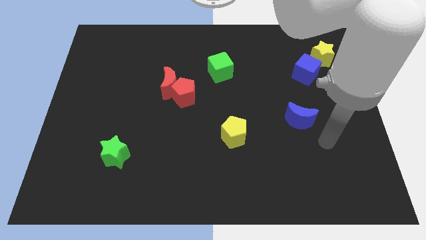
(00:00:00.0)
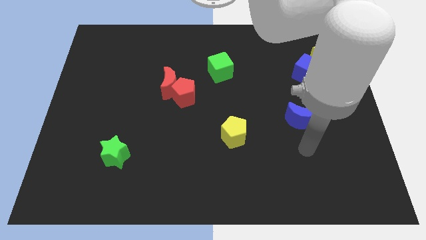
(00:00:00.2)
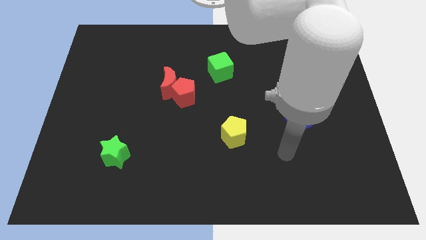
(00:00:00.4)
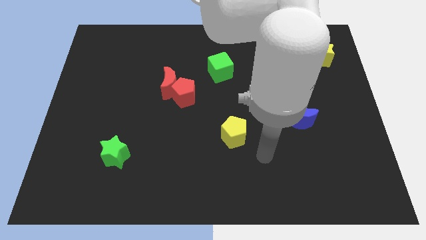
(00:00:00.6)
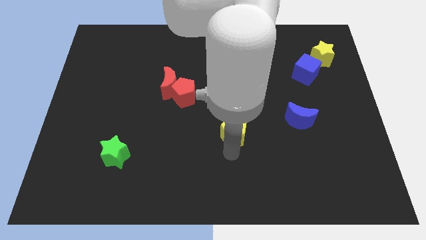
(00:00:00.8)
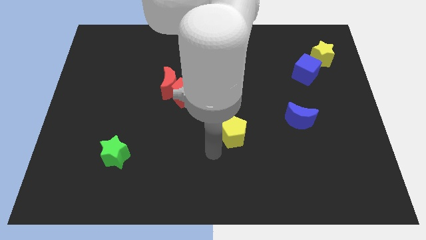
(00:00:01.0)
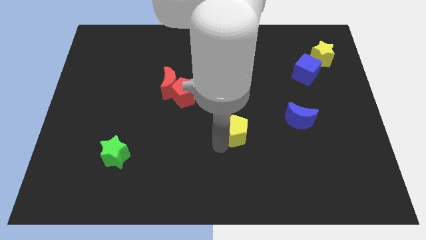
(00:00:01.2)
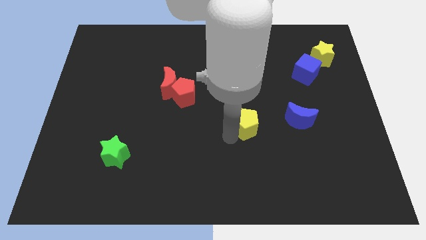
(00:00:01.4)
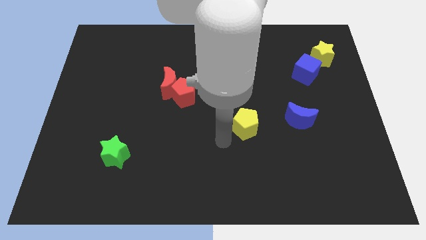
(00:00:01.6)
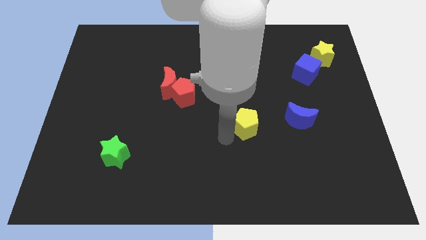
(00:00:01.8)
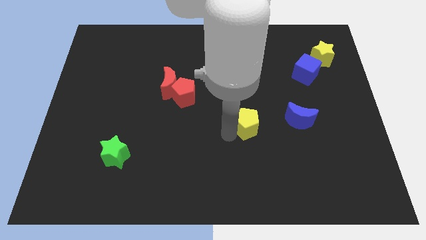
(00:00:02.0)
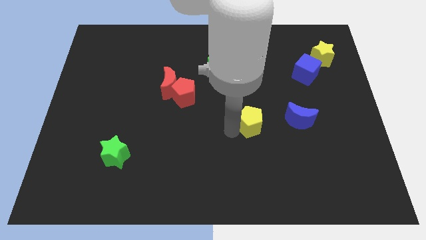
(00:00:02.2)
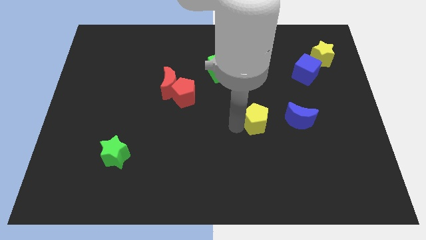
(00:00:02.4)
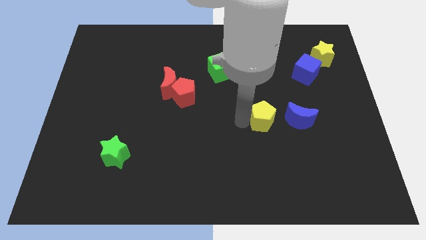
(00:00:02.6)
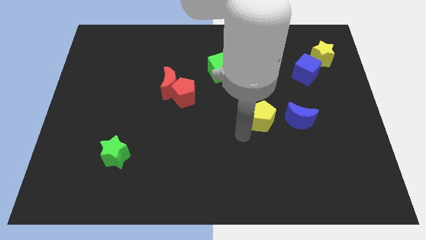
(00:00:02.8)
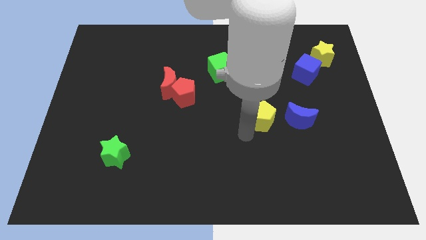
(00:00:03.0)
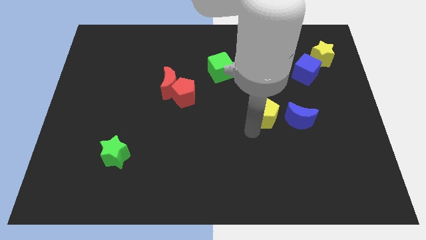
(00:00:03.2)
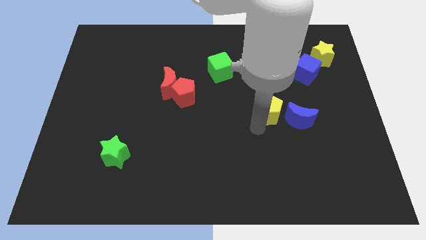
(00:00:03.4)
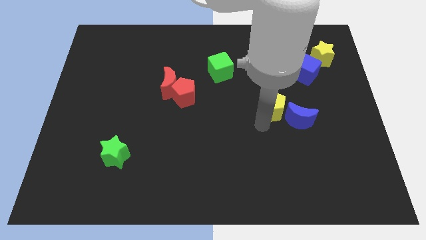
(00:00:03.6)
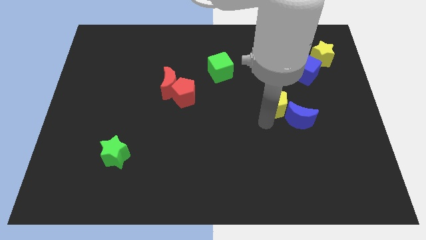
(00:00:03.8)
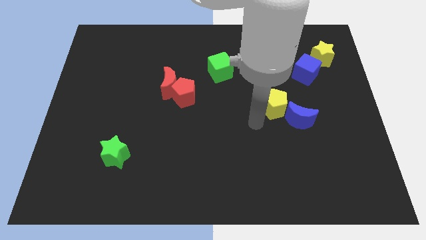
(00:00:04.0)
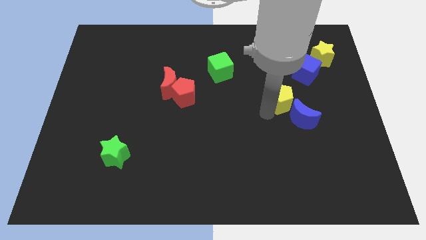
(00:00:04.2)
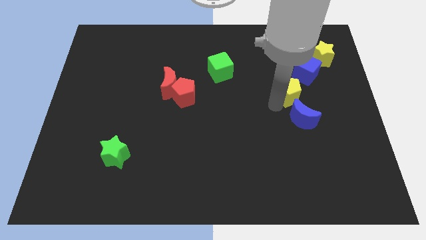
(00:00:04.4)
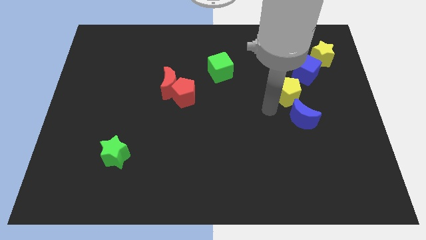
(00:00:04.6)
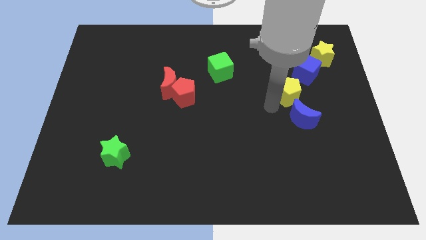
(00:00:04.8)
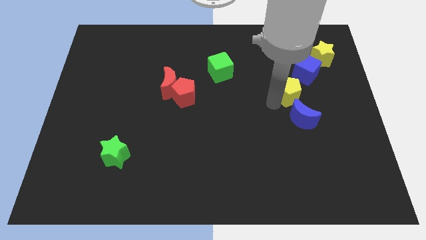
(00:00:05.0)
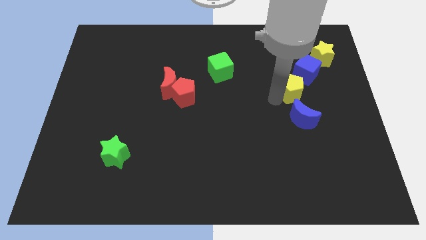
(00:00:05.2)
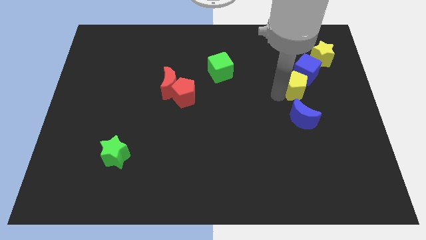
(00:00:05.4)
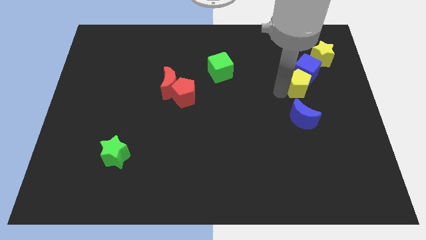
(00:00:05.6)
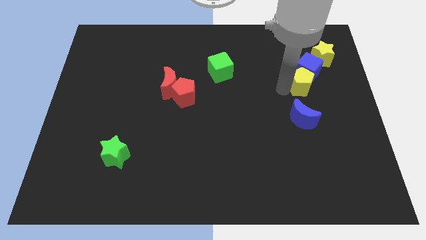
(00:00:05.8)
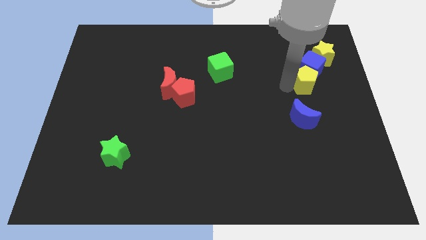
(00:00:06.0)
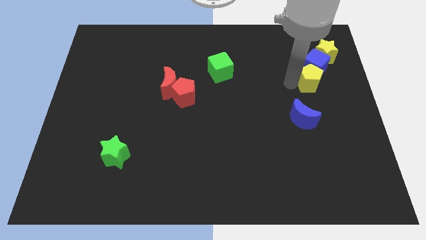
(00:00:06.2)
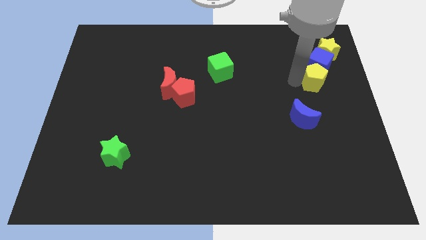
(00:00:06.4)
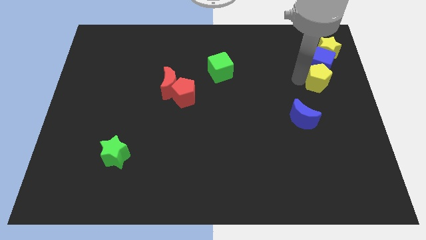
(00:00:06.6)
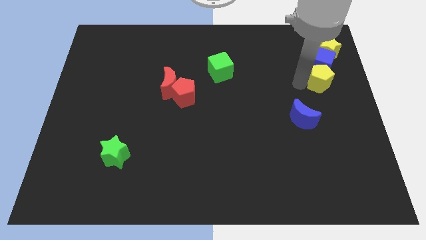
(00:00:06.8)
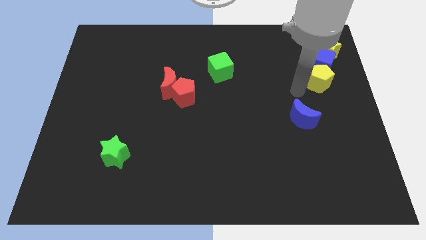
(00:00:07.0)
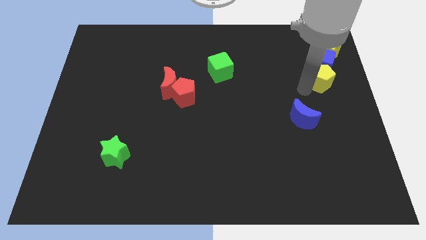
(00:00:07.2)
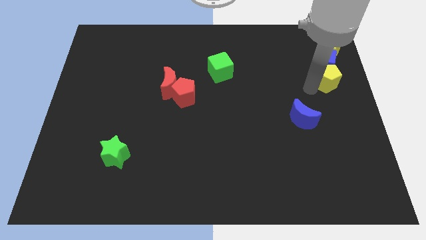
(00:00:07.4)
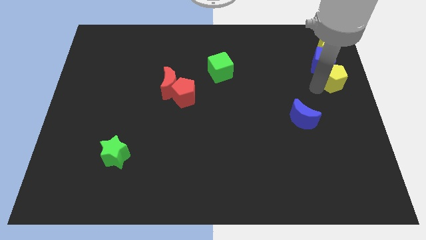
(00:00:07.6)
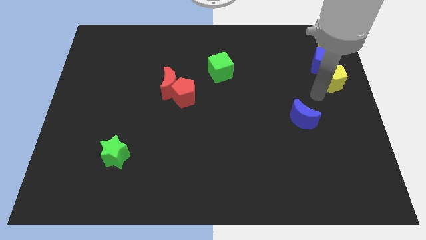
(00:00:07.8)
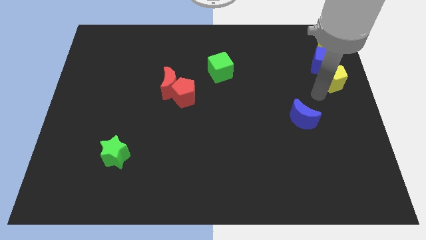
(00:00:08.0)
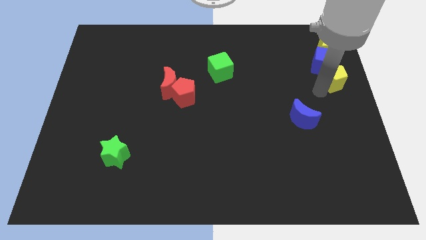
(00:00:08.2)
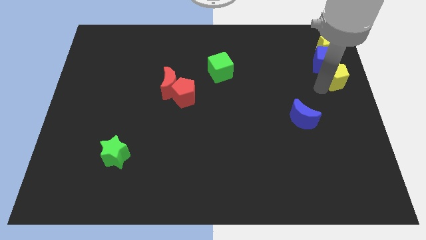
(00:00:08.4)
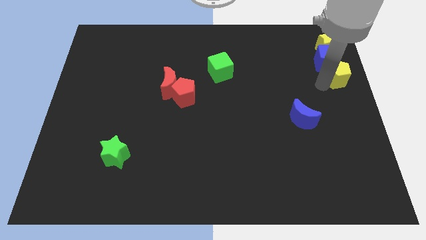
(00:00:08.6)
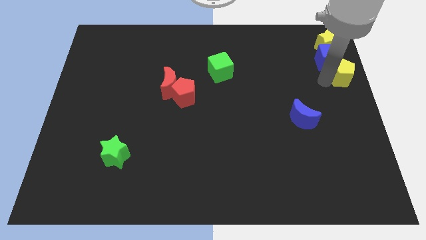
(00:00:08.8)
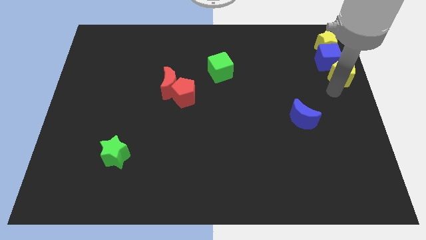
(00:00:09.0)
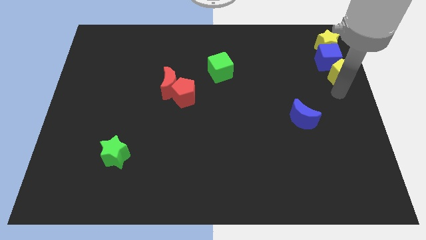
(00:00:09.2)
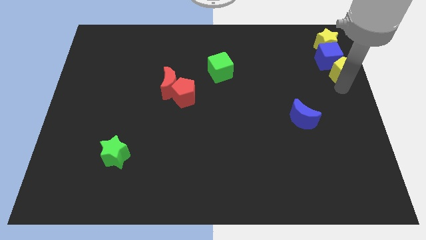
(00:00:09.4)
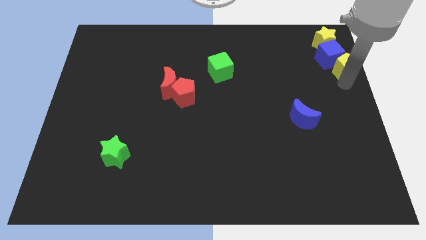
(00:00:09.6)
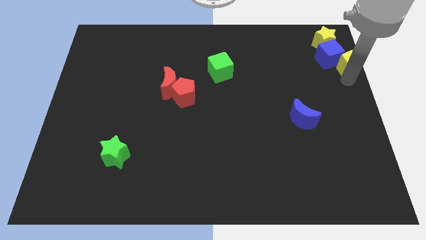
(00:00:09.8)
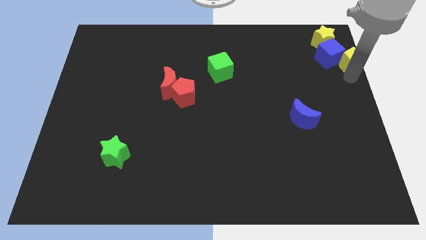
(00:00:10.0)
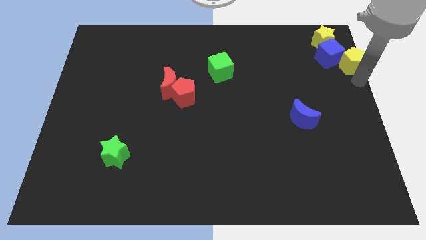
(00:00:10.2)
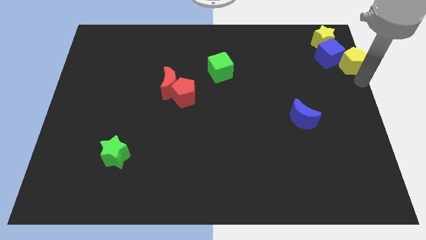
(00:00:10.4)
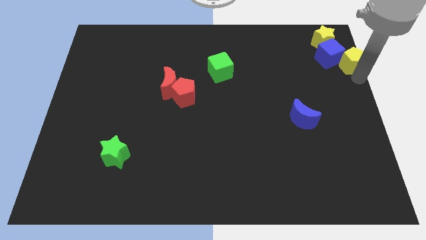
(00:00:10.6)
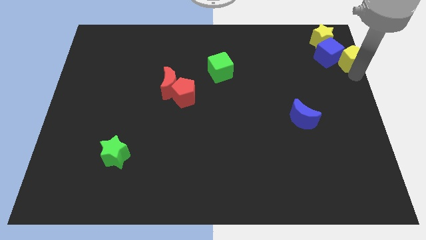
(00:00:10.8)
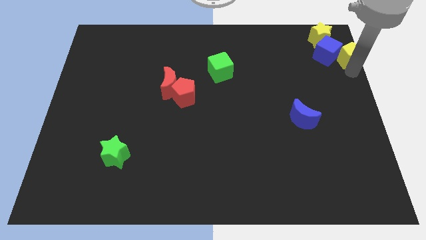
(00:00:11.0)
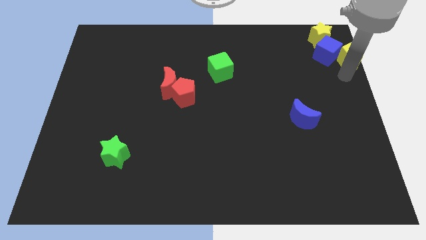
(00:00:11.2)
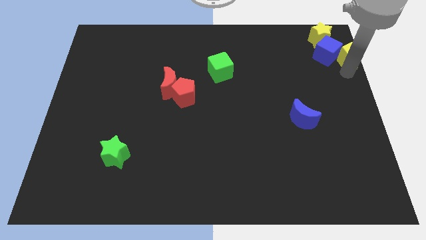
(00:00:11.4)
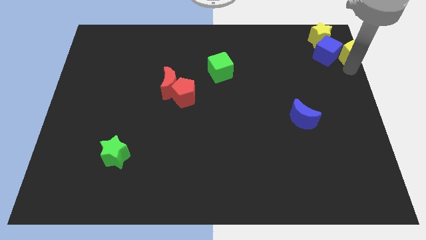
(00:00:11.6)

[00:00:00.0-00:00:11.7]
push the yellow pentagon to the upper right corner

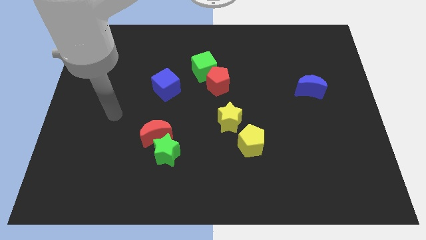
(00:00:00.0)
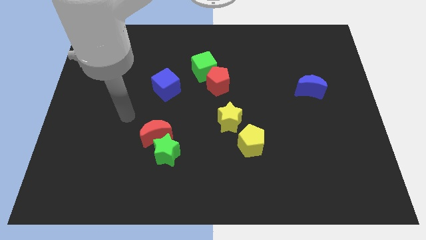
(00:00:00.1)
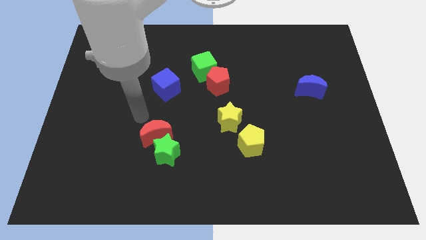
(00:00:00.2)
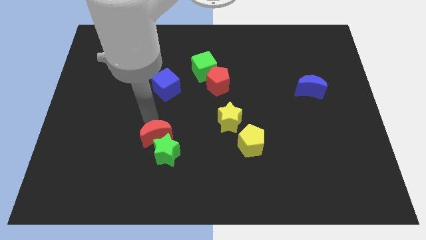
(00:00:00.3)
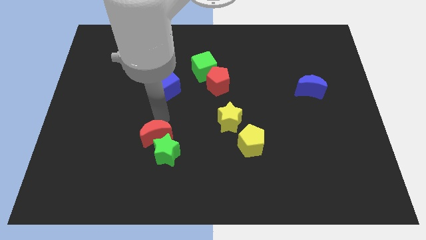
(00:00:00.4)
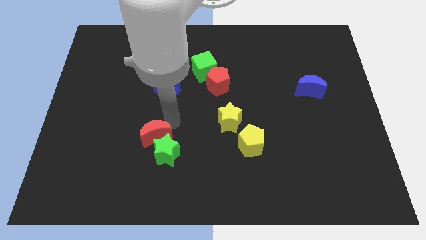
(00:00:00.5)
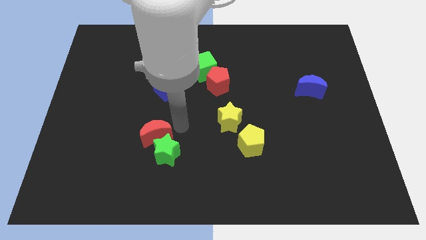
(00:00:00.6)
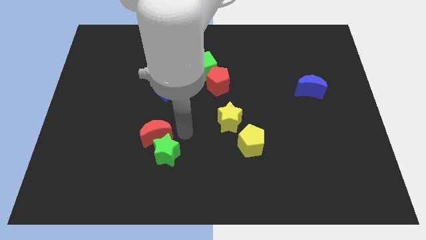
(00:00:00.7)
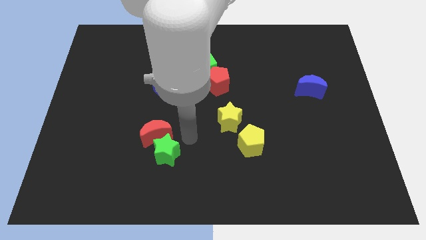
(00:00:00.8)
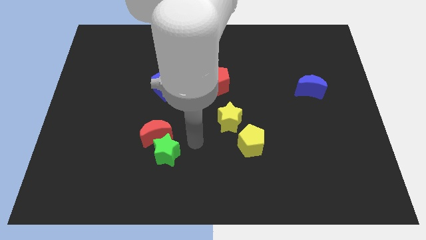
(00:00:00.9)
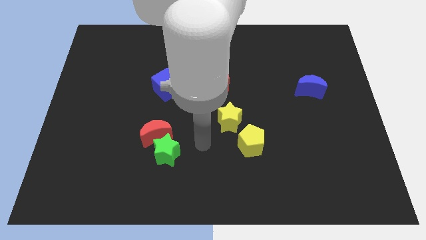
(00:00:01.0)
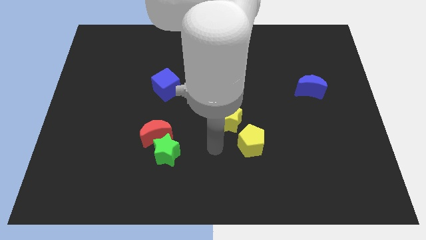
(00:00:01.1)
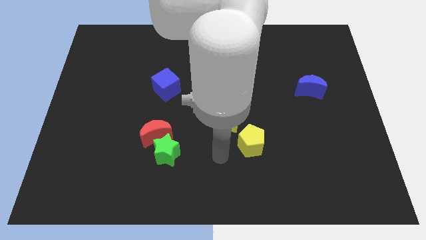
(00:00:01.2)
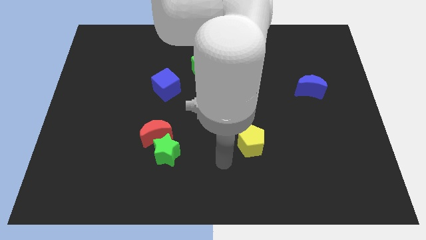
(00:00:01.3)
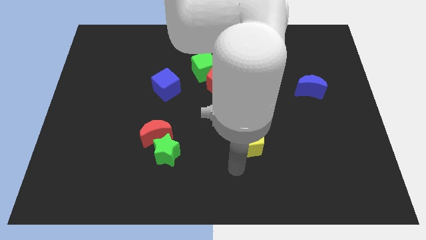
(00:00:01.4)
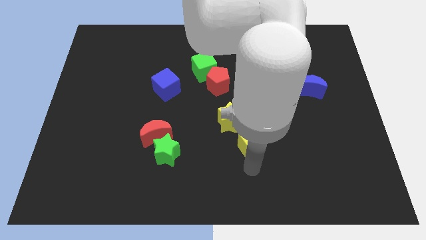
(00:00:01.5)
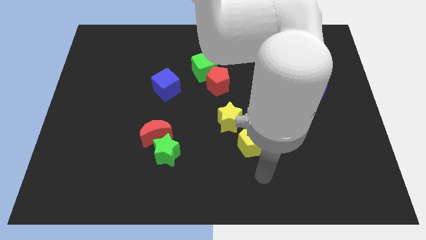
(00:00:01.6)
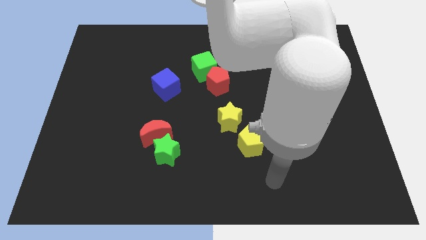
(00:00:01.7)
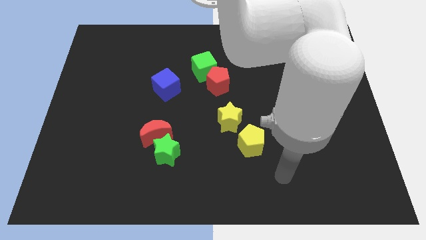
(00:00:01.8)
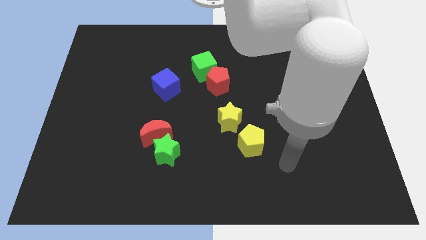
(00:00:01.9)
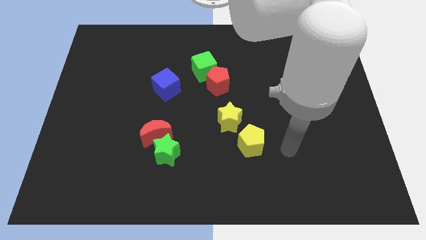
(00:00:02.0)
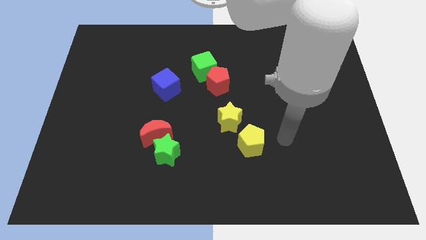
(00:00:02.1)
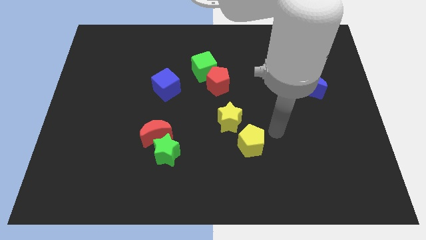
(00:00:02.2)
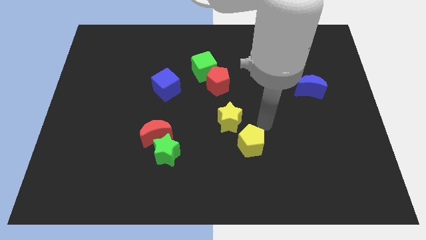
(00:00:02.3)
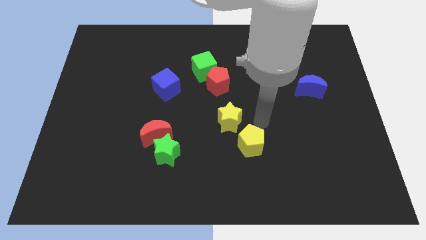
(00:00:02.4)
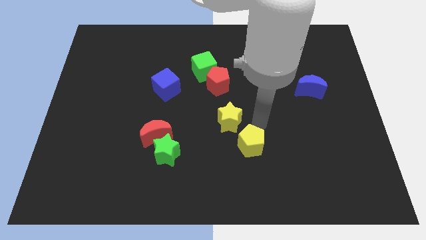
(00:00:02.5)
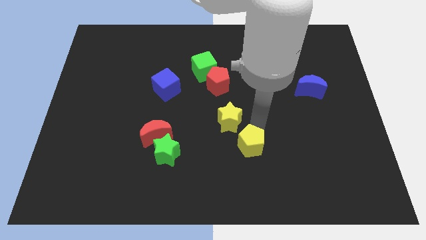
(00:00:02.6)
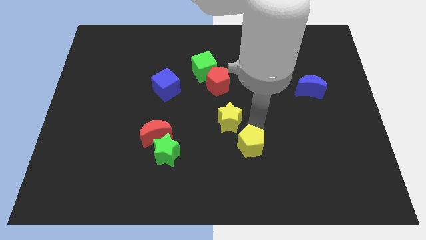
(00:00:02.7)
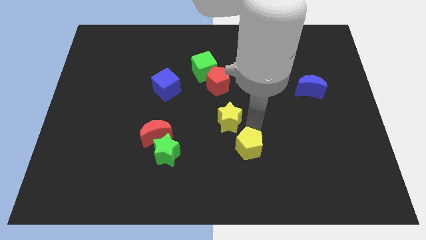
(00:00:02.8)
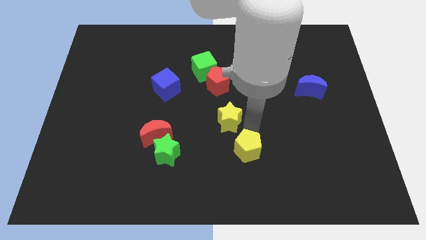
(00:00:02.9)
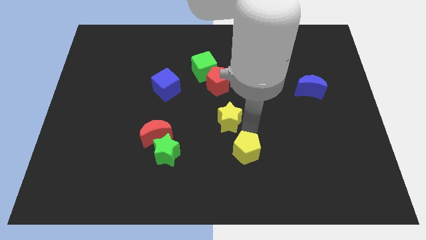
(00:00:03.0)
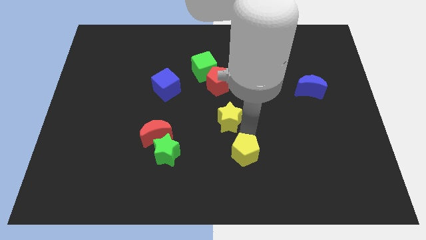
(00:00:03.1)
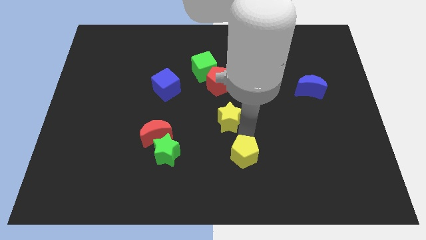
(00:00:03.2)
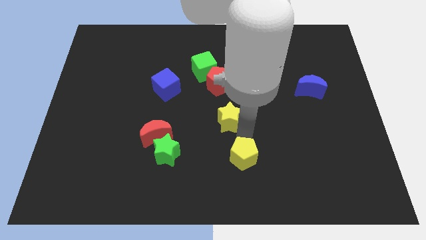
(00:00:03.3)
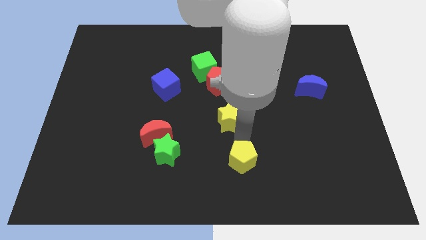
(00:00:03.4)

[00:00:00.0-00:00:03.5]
move the yellow pentagon to the bottom
